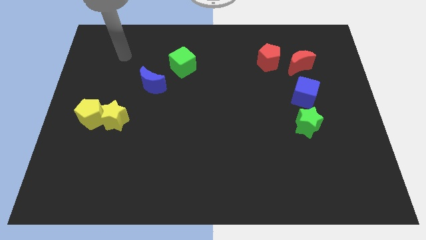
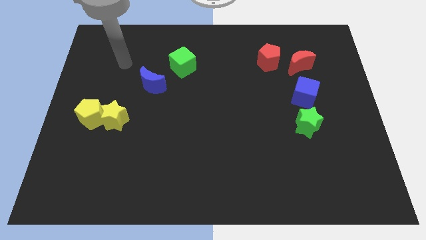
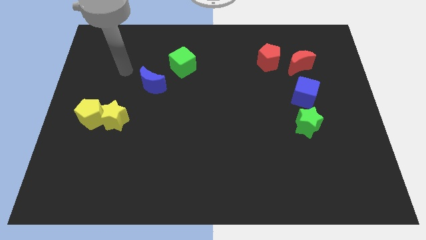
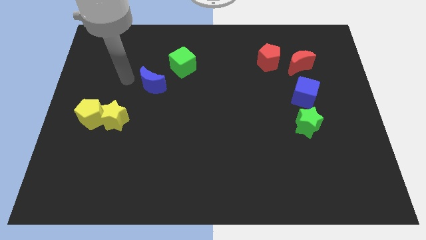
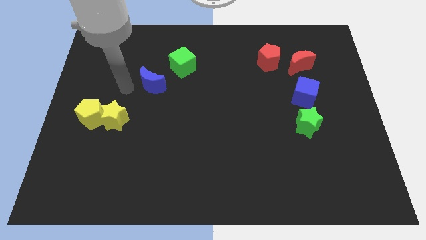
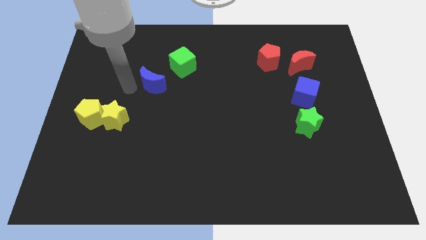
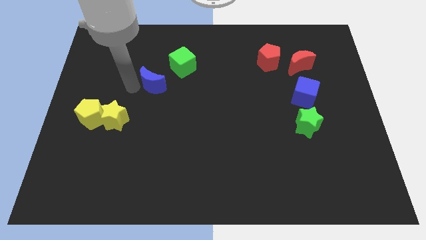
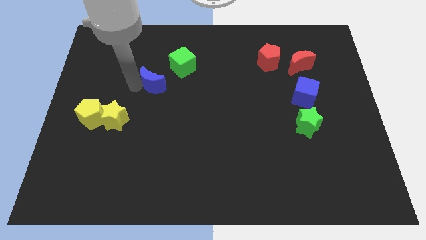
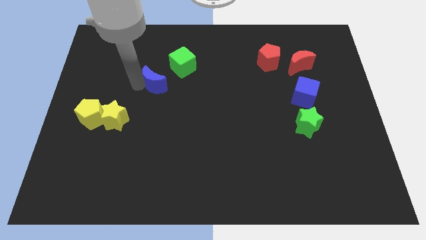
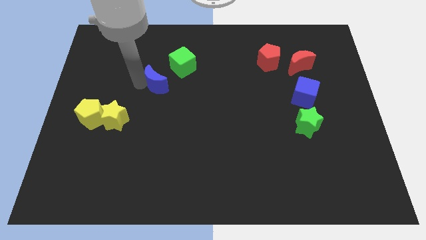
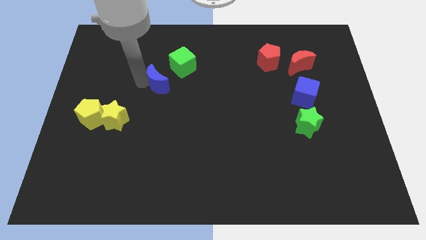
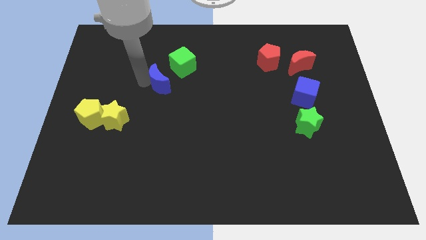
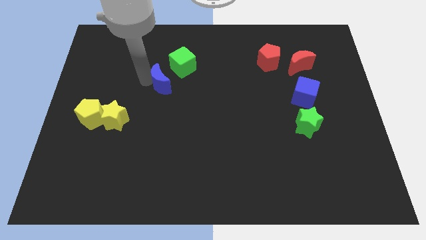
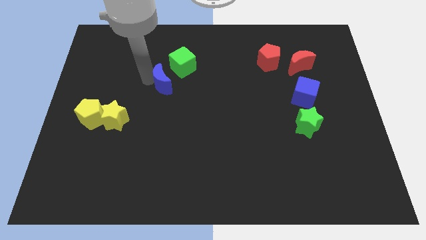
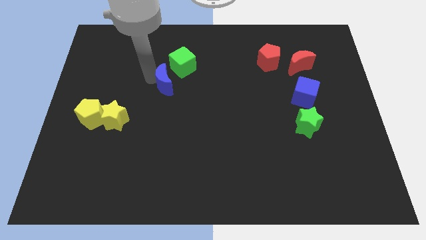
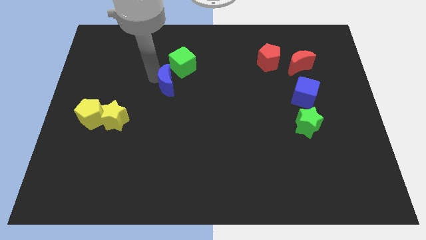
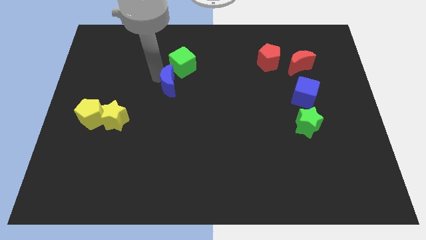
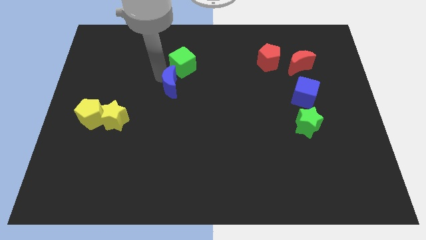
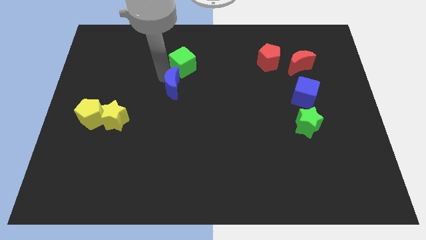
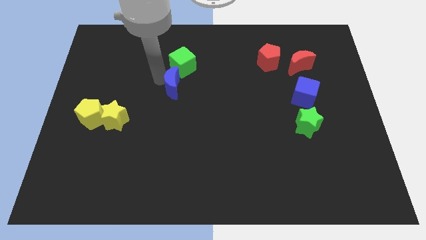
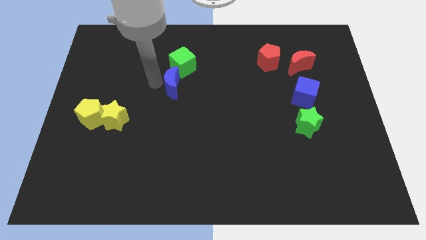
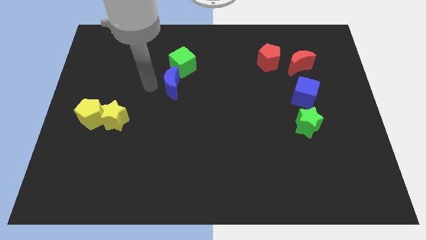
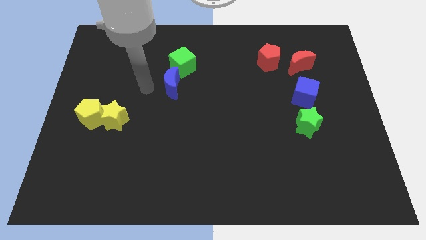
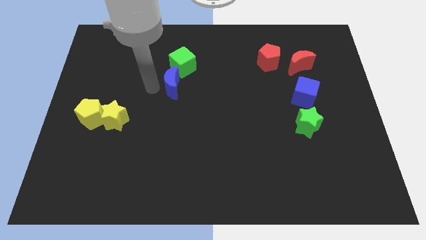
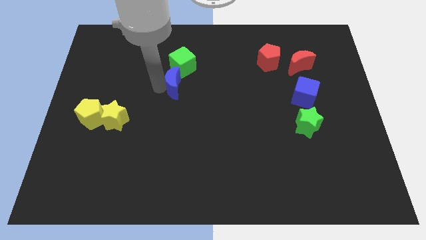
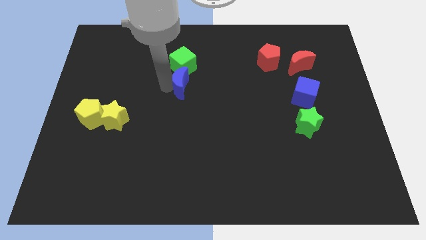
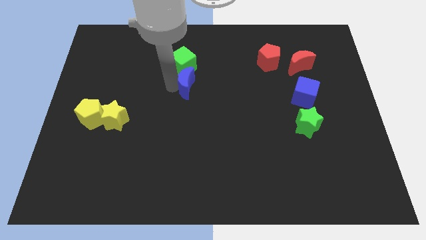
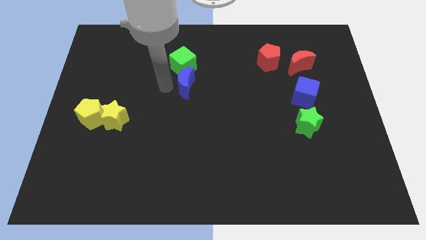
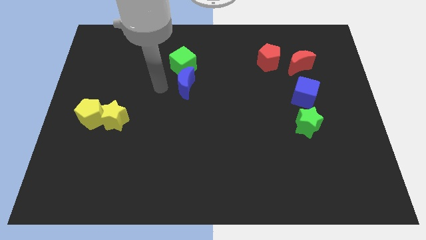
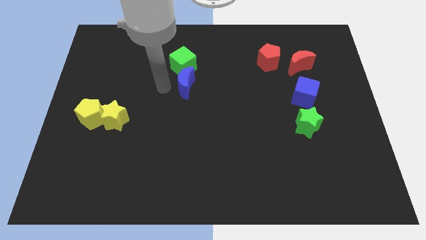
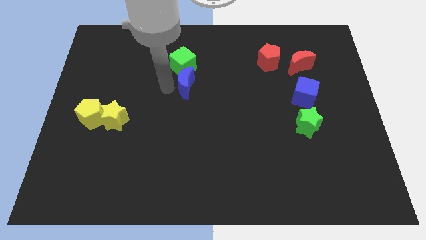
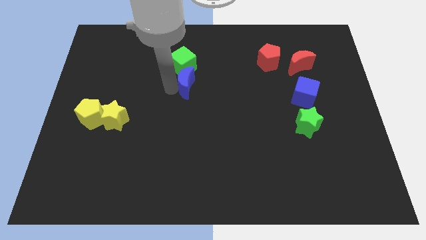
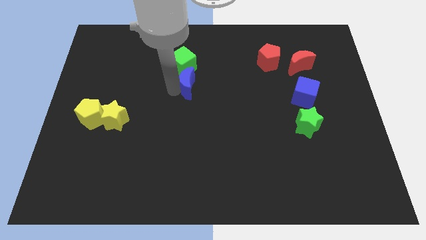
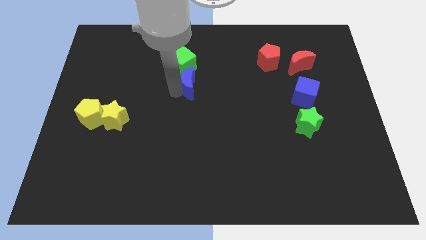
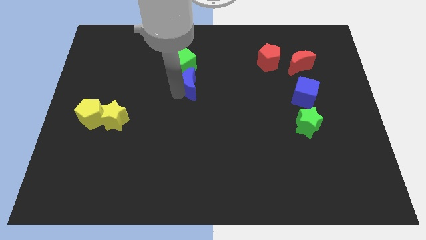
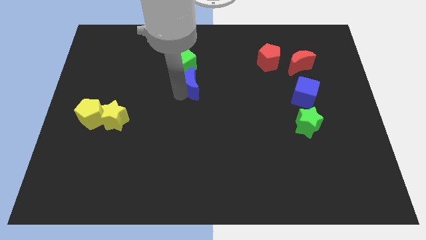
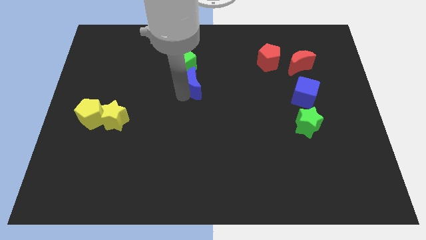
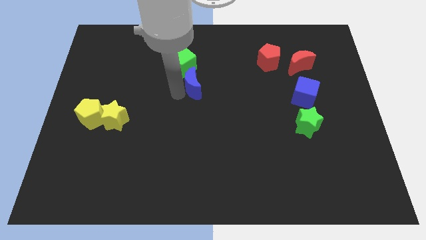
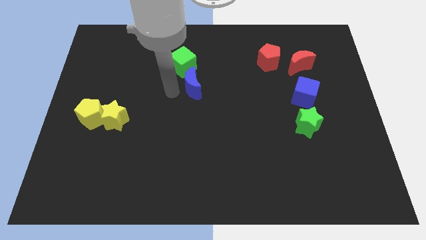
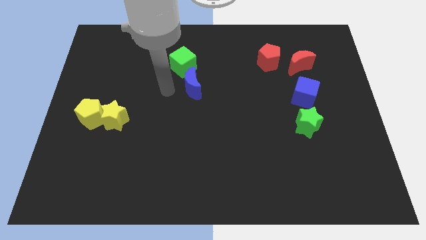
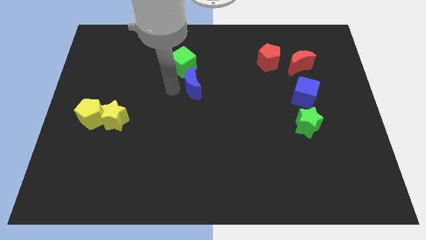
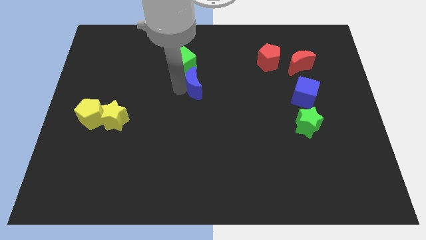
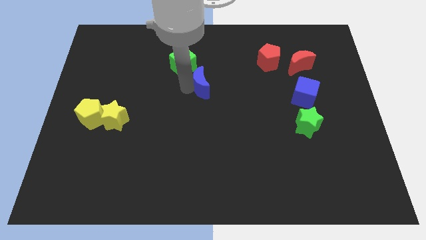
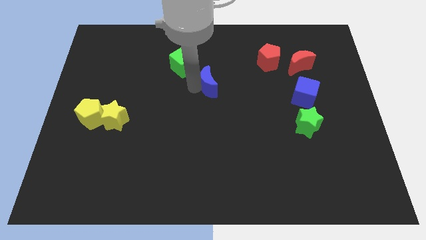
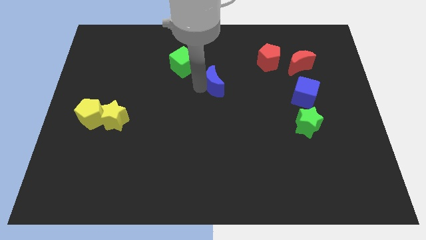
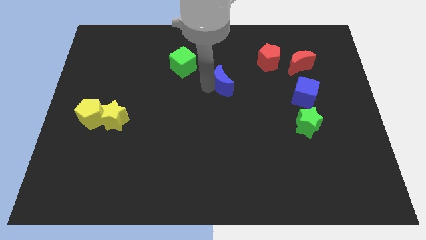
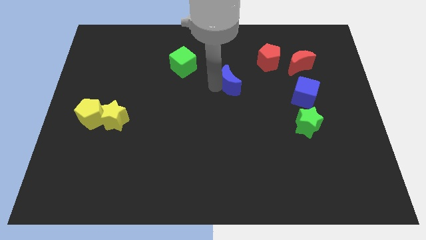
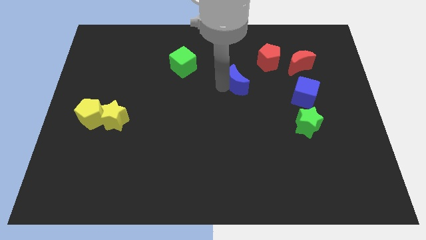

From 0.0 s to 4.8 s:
push the blue moon right

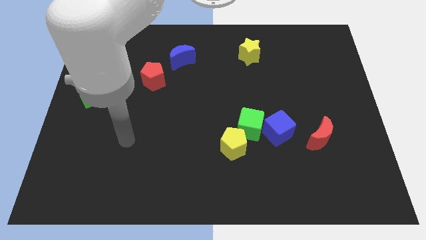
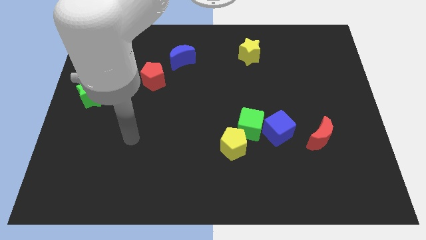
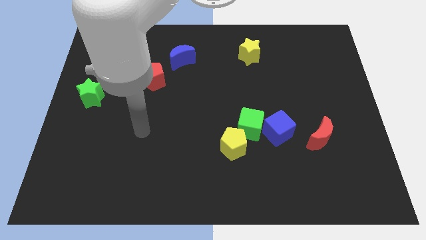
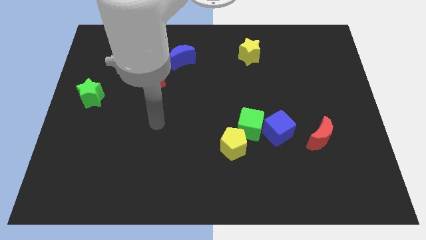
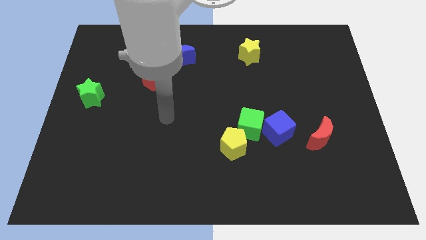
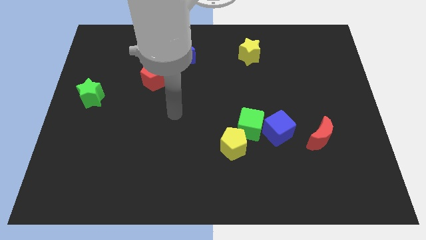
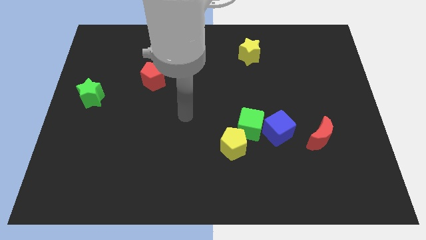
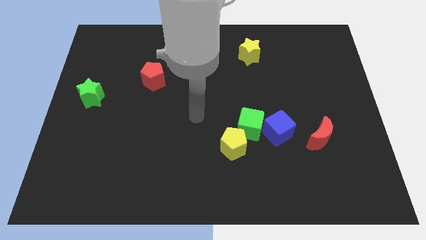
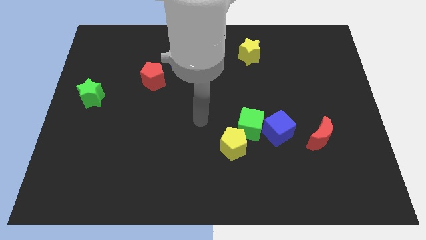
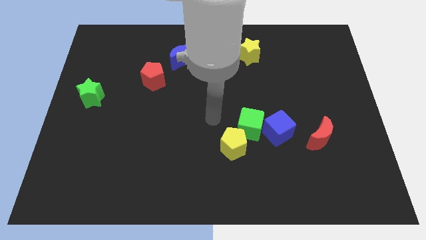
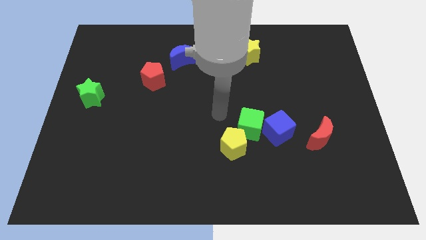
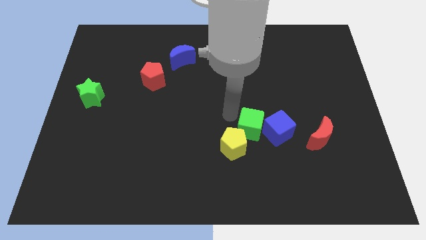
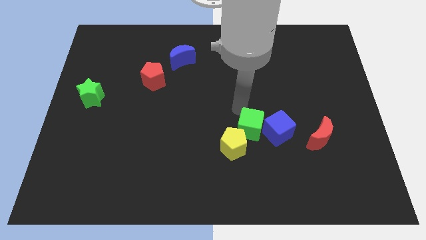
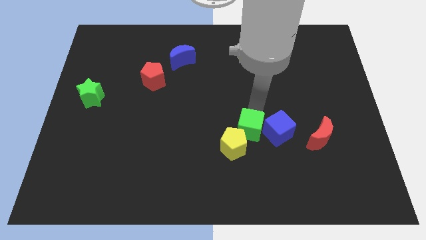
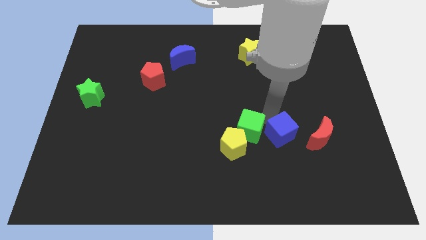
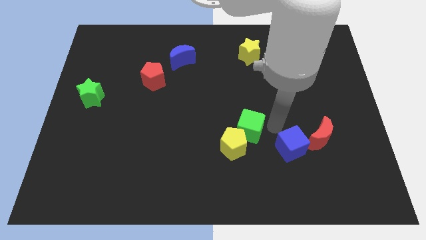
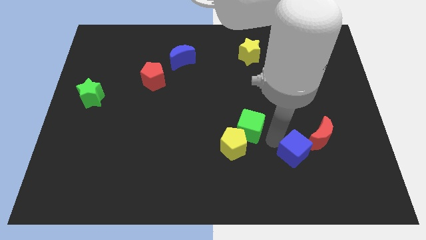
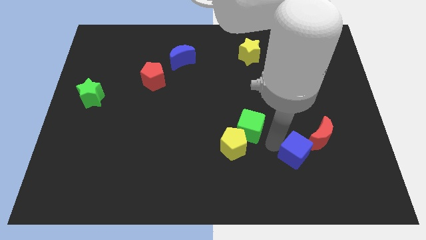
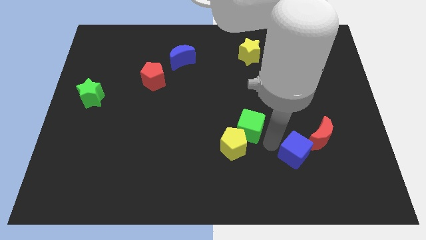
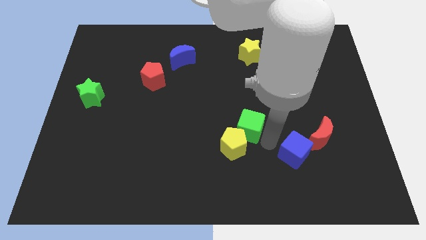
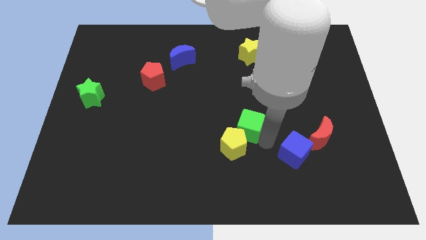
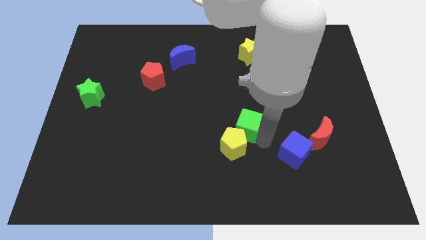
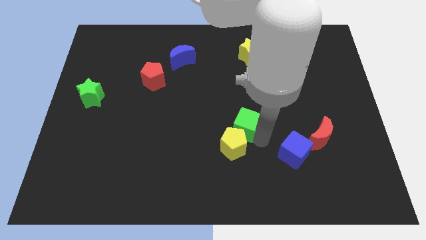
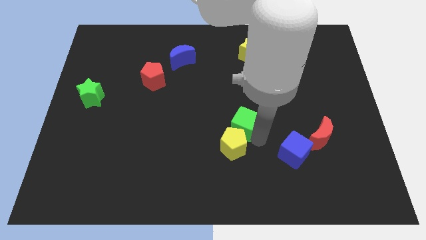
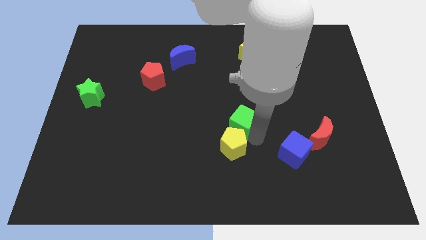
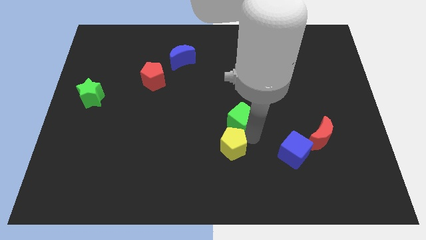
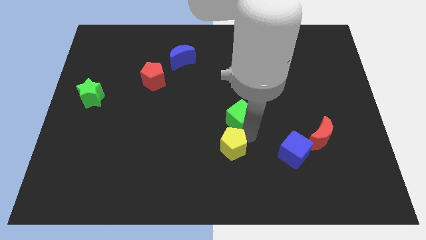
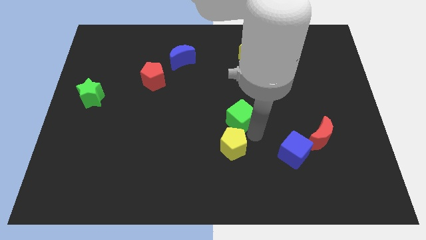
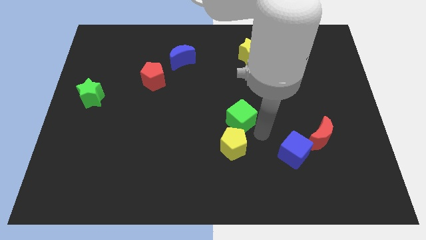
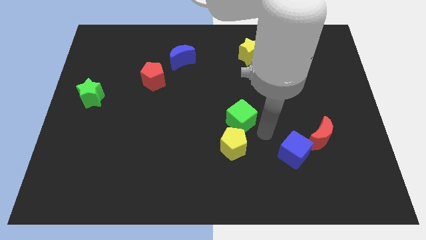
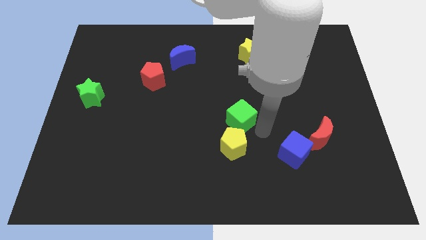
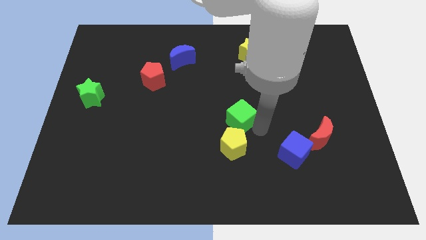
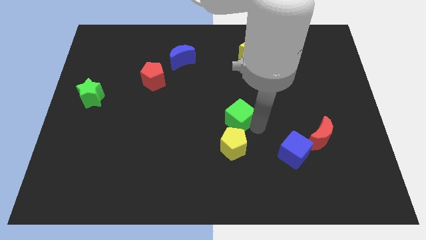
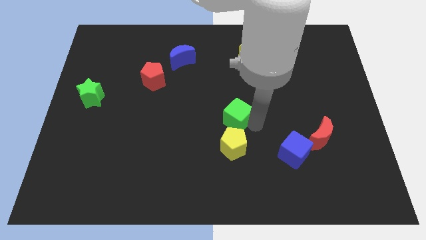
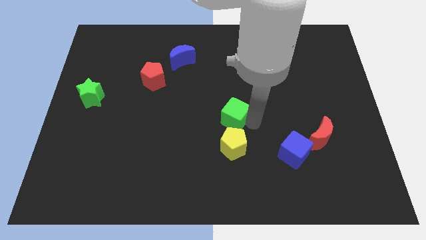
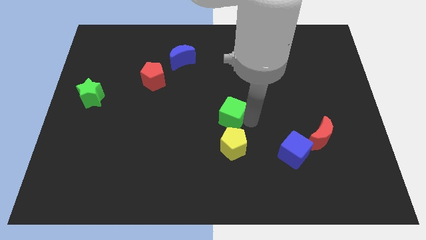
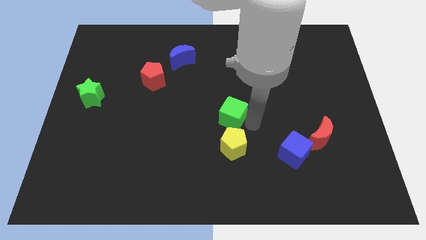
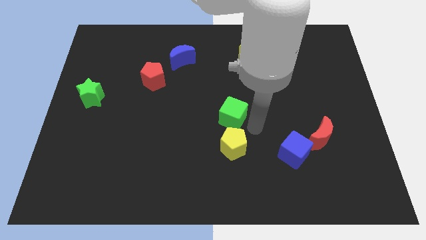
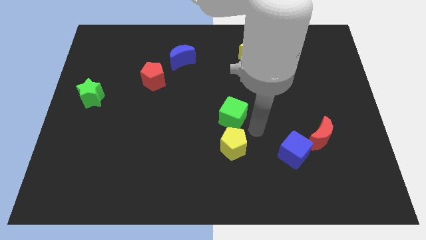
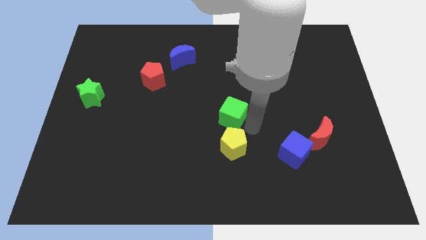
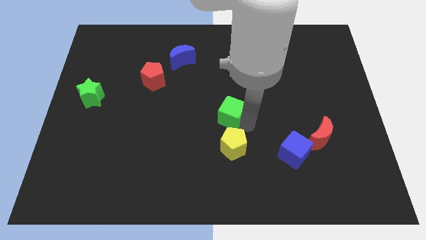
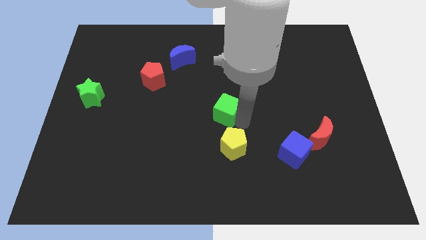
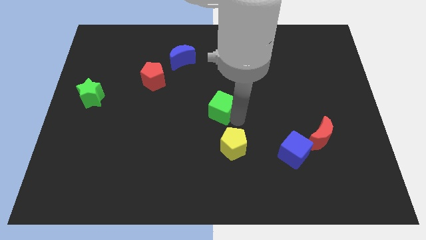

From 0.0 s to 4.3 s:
slightly push the green cube diagonally up and to the left
